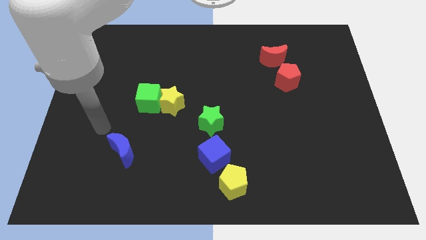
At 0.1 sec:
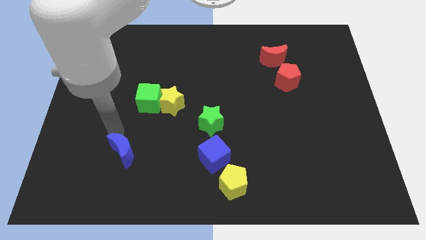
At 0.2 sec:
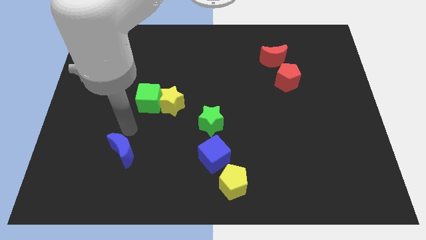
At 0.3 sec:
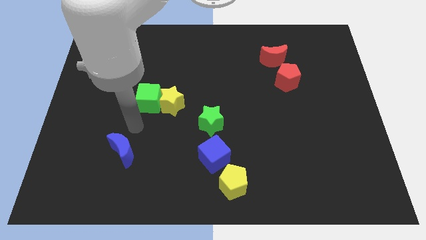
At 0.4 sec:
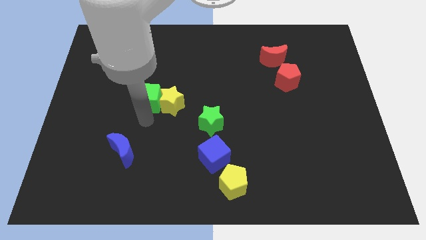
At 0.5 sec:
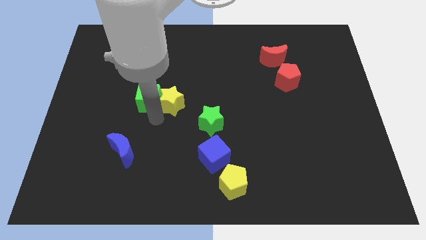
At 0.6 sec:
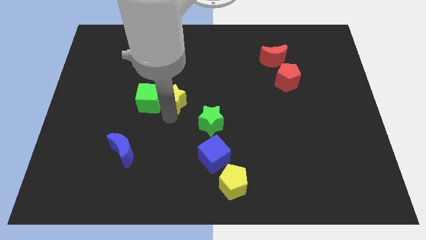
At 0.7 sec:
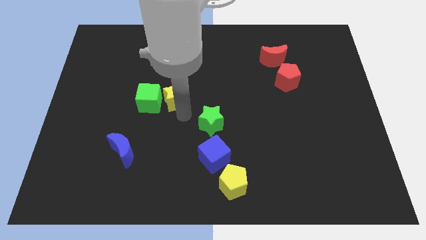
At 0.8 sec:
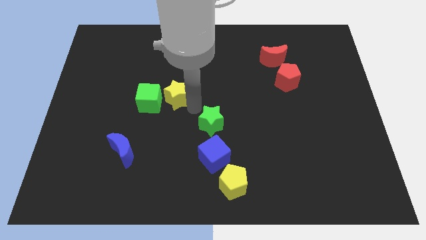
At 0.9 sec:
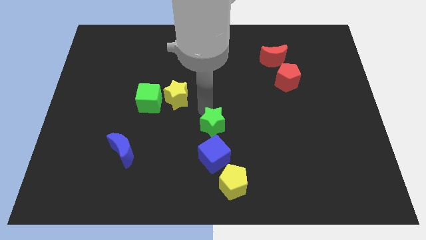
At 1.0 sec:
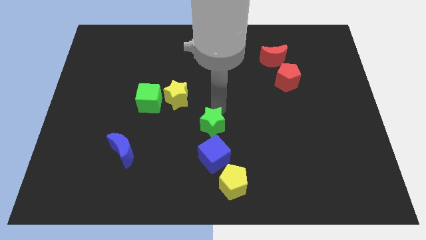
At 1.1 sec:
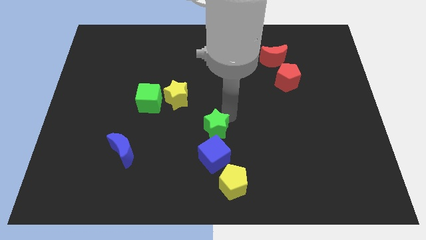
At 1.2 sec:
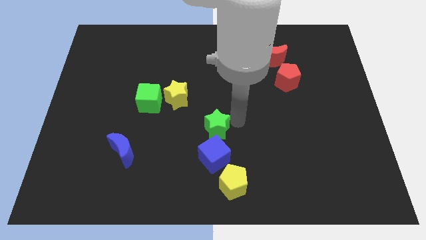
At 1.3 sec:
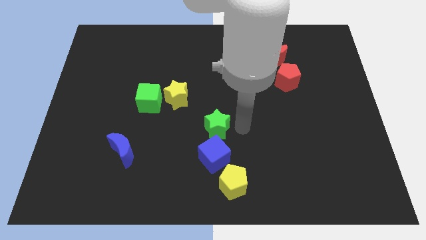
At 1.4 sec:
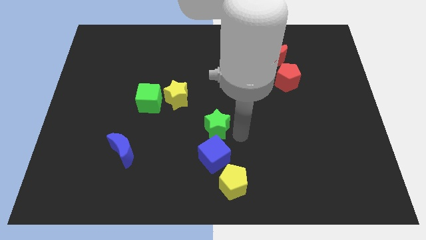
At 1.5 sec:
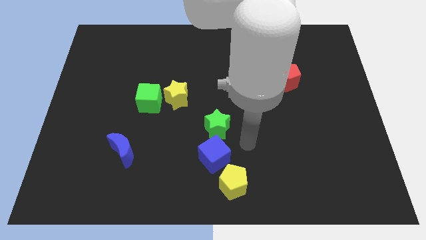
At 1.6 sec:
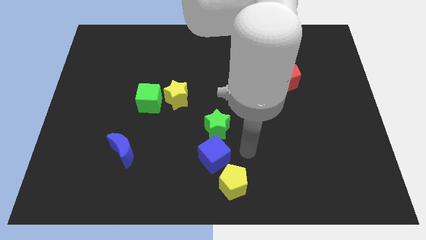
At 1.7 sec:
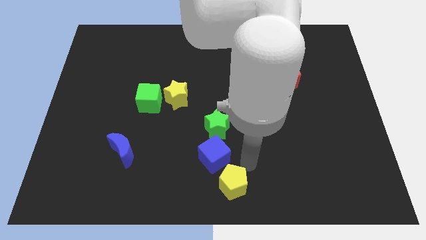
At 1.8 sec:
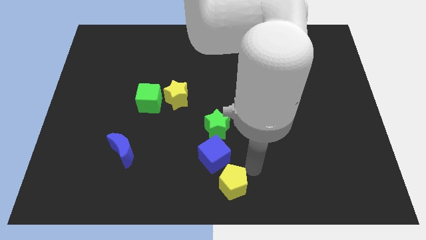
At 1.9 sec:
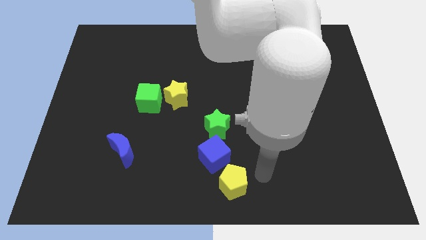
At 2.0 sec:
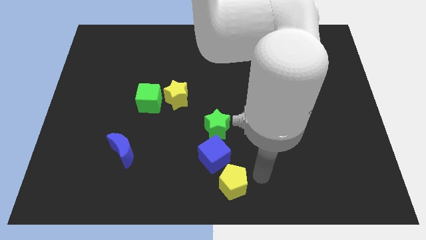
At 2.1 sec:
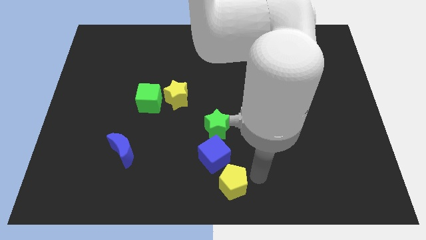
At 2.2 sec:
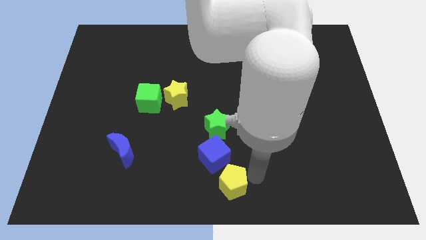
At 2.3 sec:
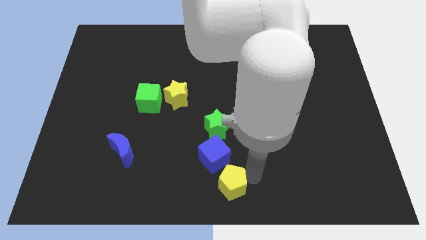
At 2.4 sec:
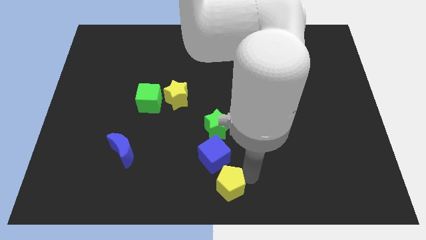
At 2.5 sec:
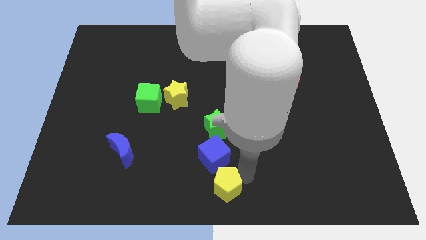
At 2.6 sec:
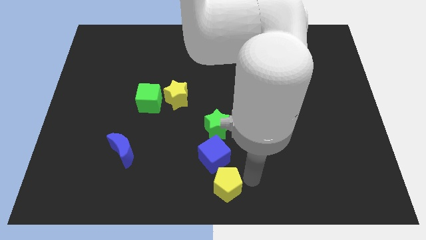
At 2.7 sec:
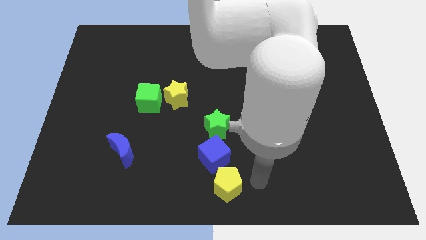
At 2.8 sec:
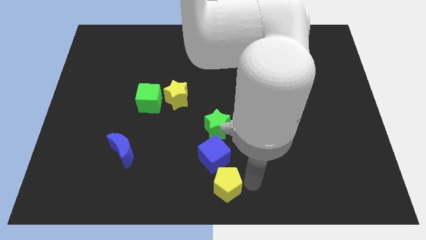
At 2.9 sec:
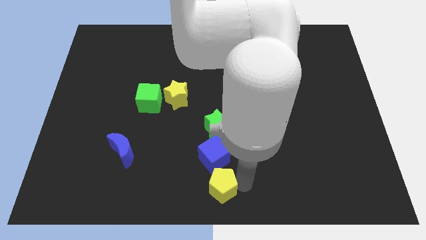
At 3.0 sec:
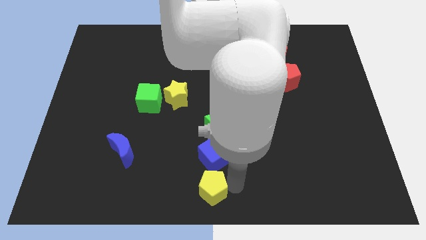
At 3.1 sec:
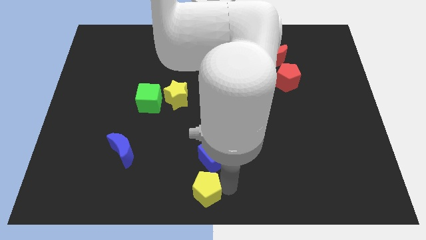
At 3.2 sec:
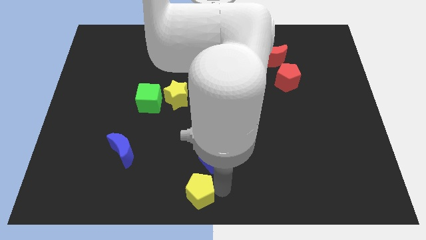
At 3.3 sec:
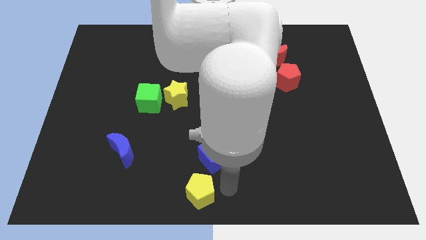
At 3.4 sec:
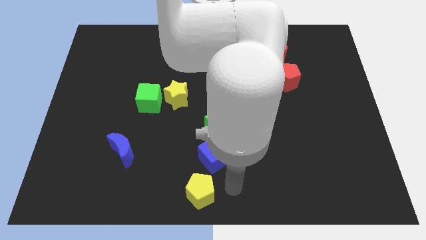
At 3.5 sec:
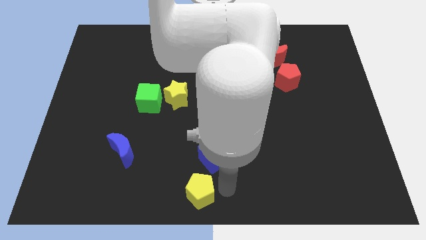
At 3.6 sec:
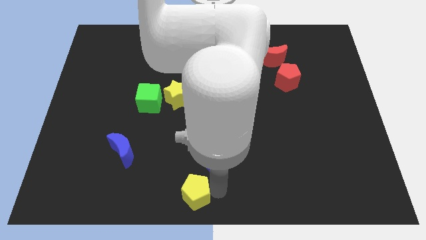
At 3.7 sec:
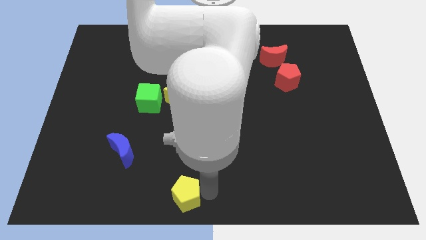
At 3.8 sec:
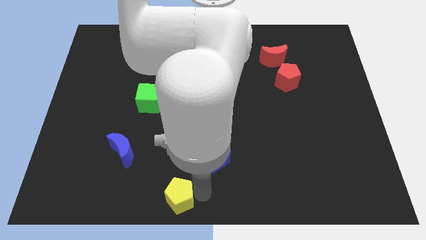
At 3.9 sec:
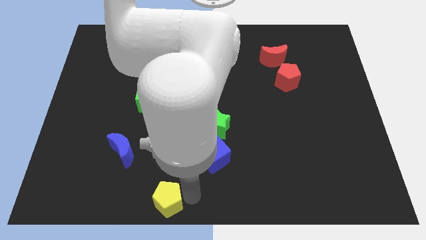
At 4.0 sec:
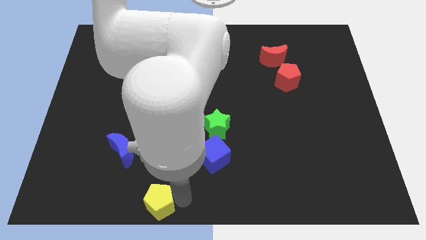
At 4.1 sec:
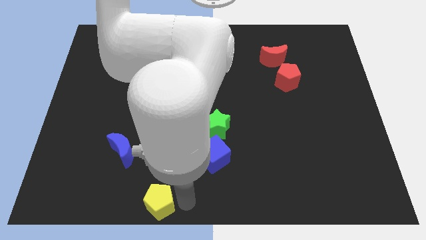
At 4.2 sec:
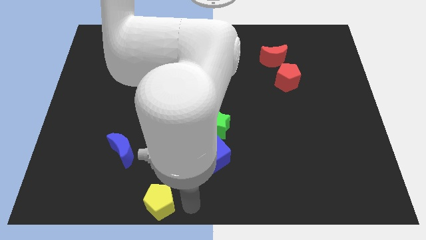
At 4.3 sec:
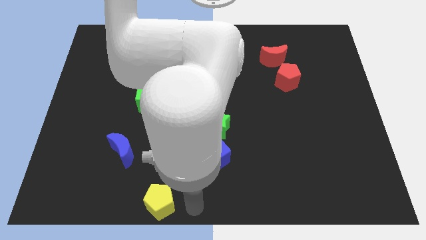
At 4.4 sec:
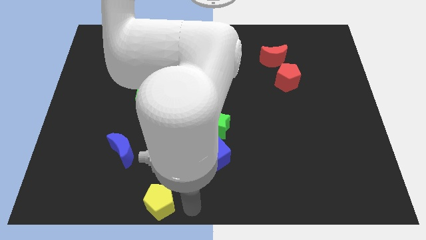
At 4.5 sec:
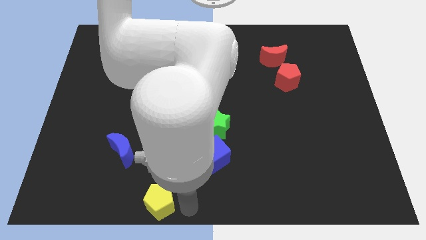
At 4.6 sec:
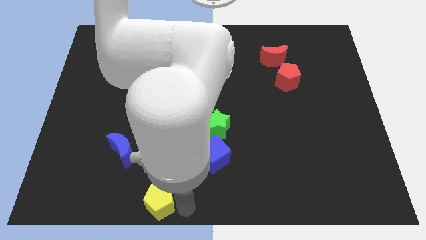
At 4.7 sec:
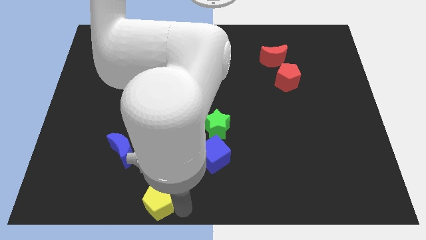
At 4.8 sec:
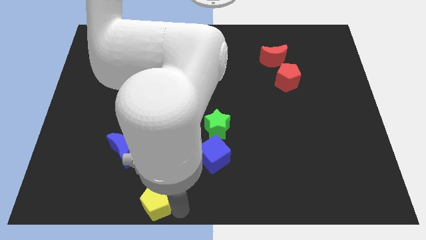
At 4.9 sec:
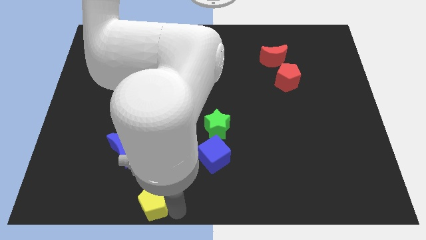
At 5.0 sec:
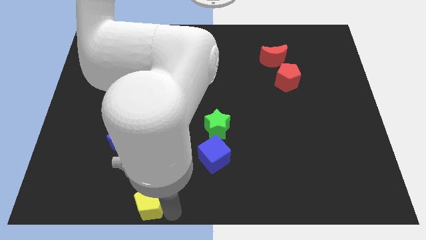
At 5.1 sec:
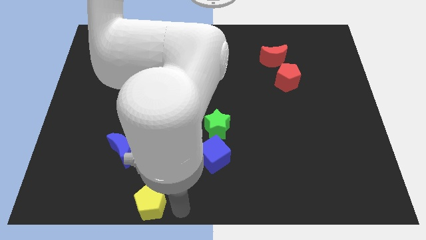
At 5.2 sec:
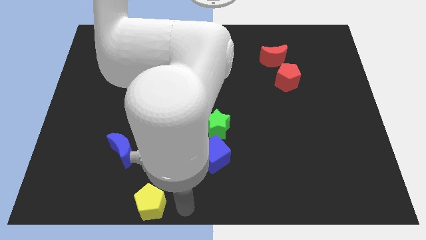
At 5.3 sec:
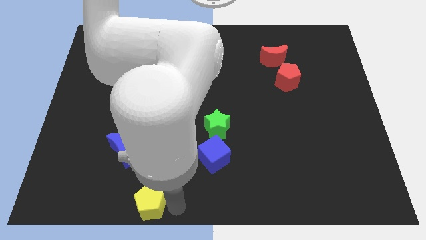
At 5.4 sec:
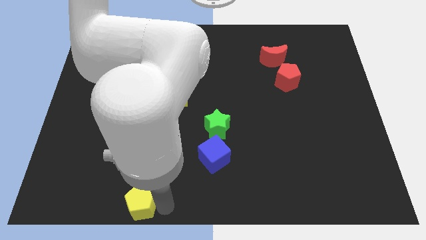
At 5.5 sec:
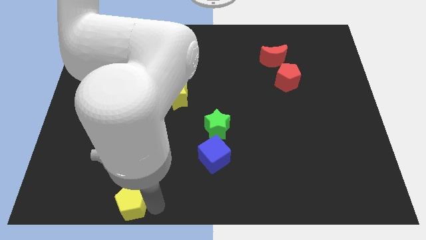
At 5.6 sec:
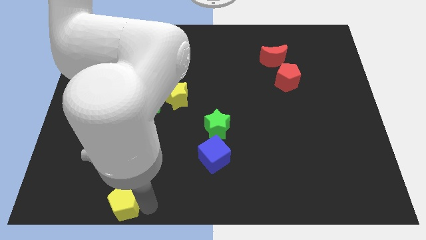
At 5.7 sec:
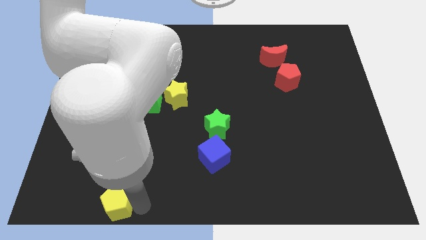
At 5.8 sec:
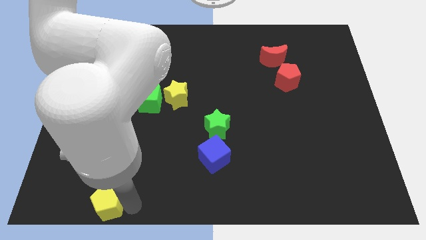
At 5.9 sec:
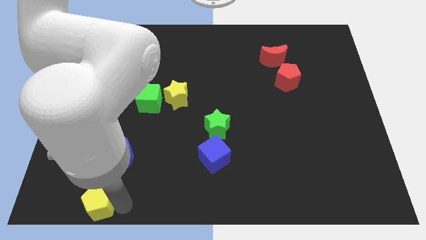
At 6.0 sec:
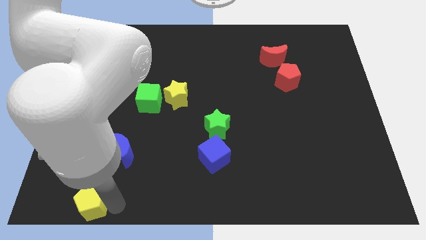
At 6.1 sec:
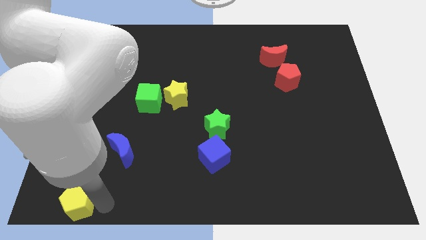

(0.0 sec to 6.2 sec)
move the yellow pentagon to the bottom left corner
